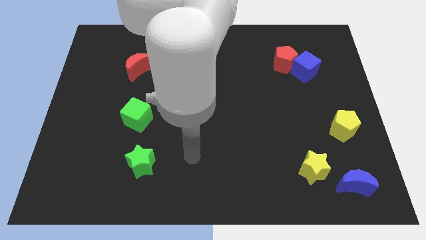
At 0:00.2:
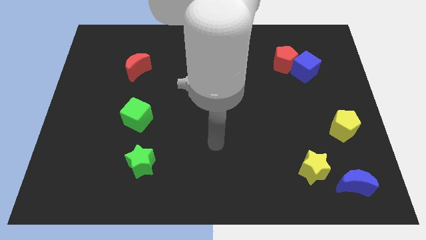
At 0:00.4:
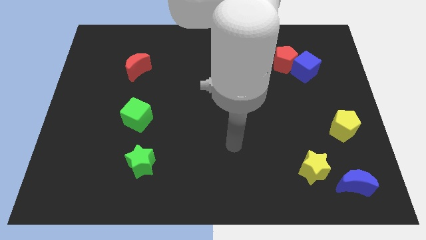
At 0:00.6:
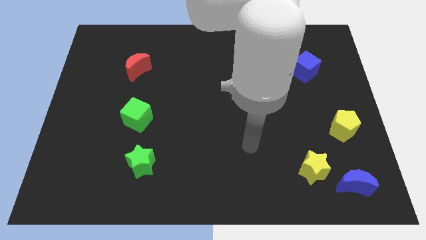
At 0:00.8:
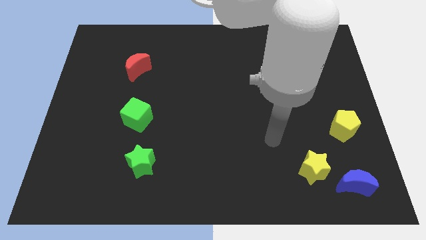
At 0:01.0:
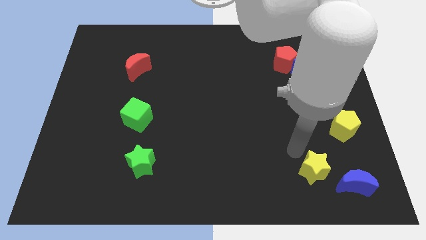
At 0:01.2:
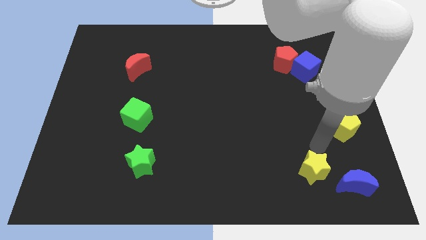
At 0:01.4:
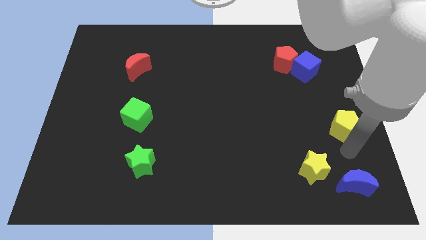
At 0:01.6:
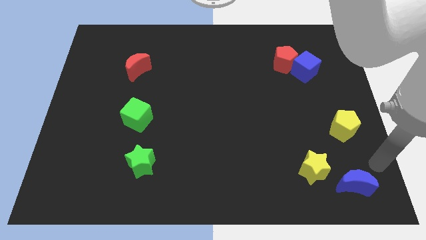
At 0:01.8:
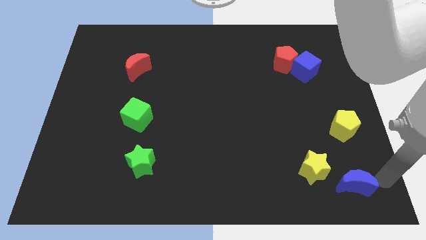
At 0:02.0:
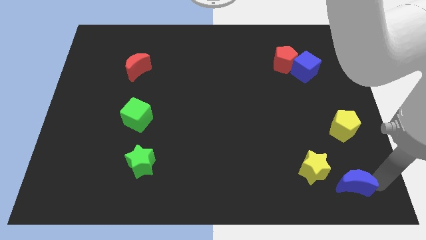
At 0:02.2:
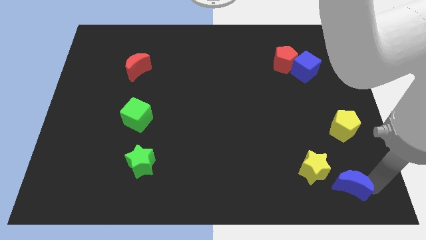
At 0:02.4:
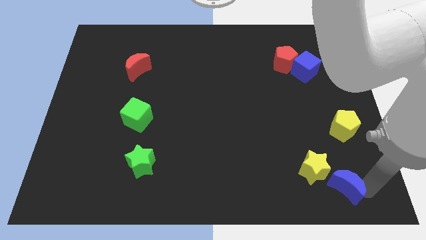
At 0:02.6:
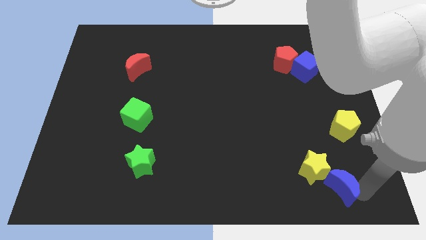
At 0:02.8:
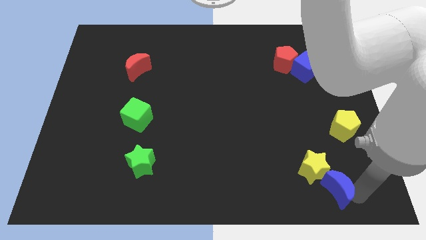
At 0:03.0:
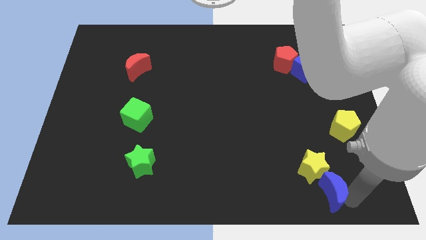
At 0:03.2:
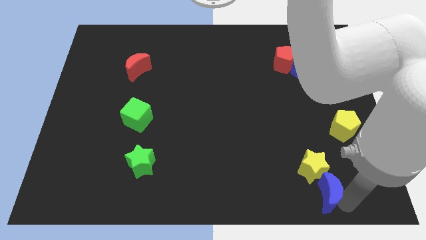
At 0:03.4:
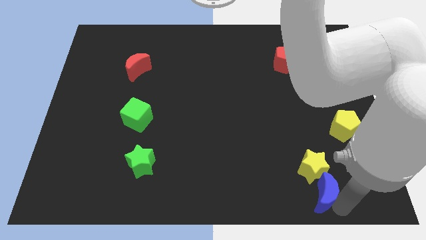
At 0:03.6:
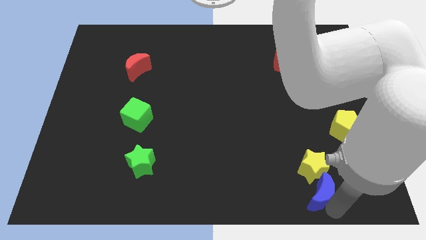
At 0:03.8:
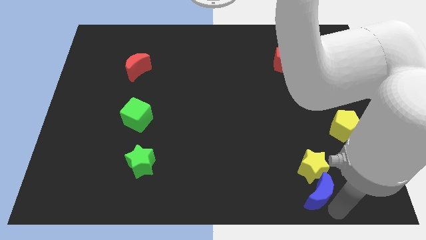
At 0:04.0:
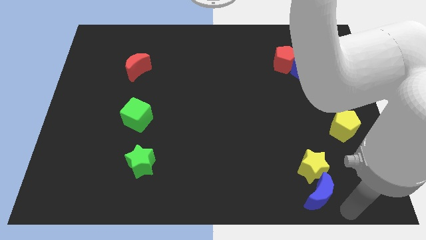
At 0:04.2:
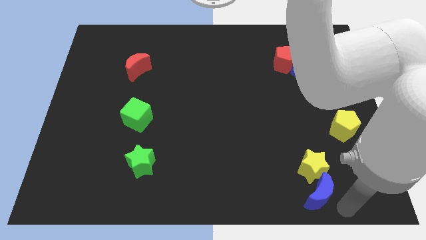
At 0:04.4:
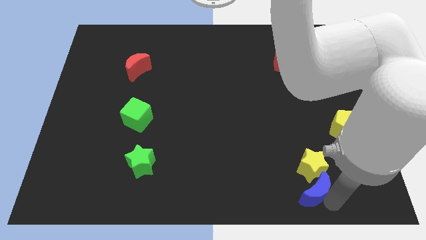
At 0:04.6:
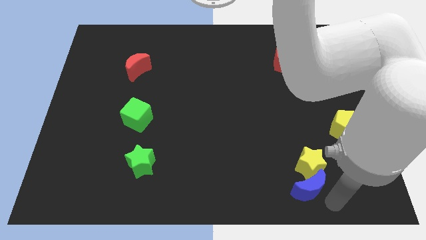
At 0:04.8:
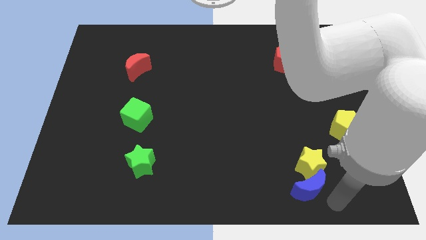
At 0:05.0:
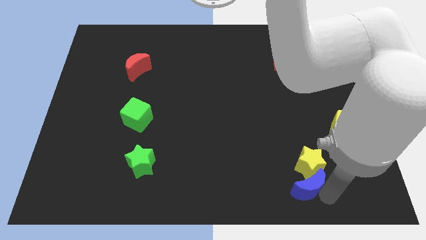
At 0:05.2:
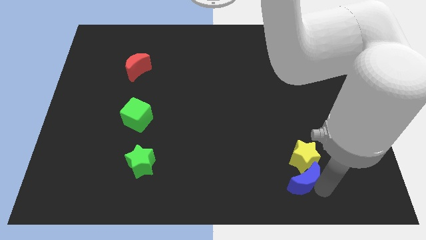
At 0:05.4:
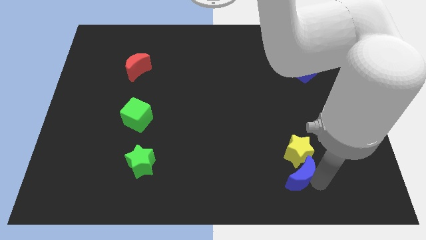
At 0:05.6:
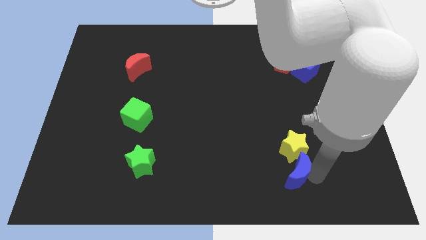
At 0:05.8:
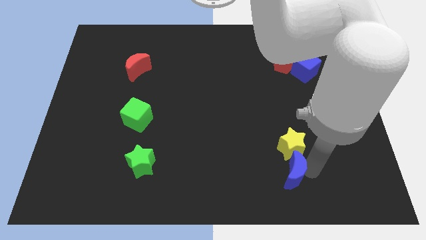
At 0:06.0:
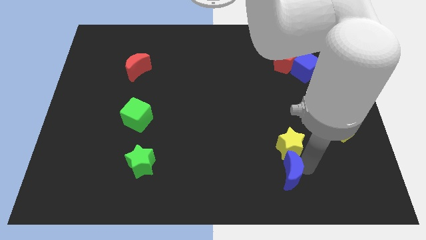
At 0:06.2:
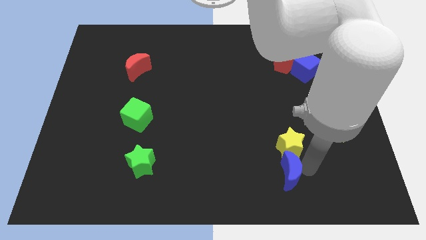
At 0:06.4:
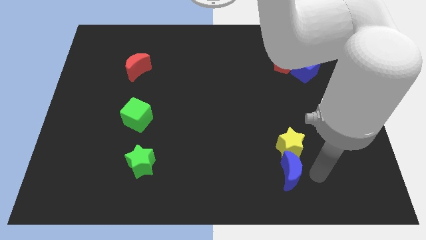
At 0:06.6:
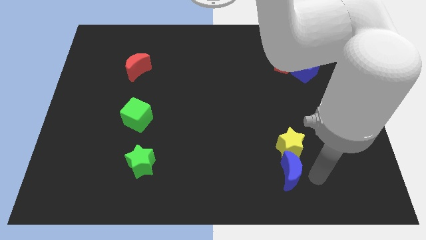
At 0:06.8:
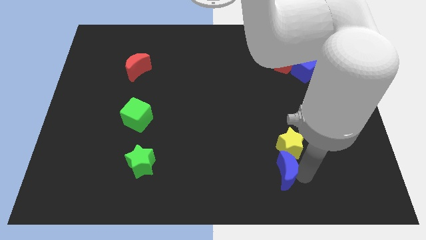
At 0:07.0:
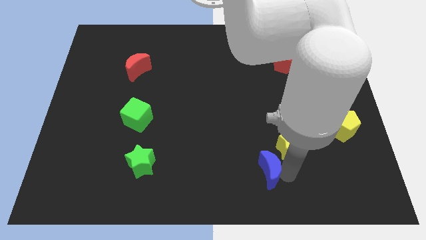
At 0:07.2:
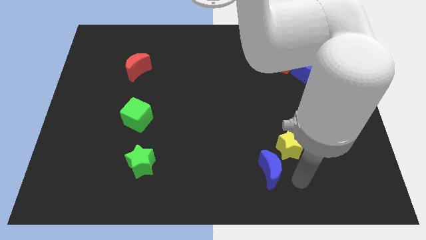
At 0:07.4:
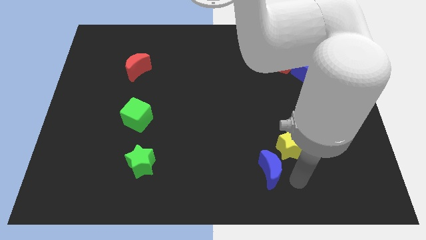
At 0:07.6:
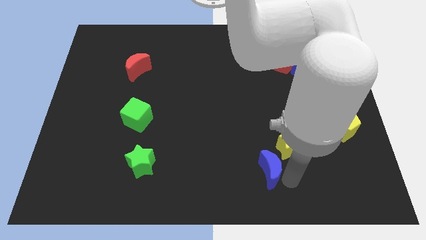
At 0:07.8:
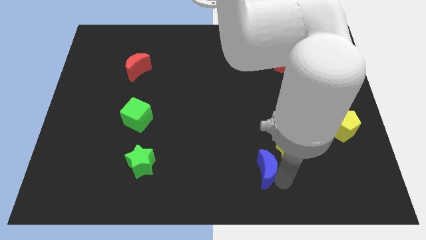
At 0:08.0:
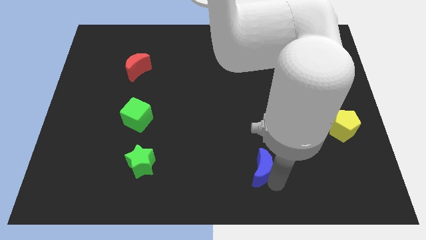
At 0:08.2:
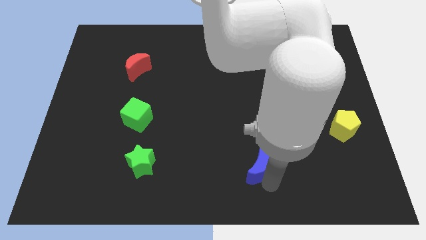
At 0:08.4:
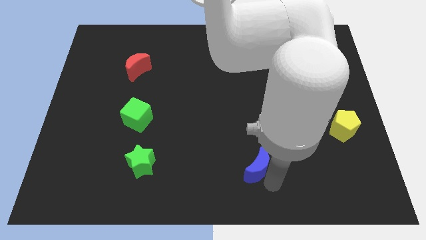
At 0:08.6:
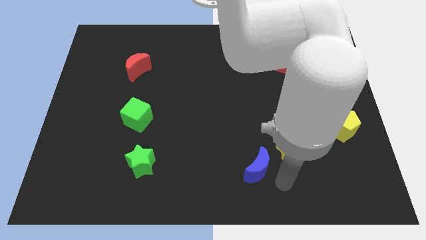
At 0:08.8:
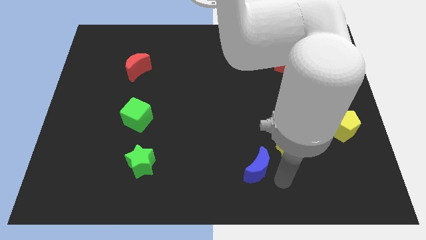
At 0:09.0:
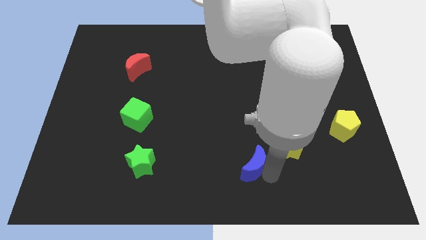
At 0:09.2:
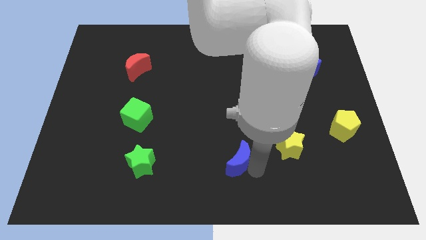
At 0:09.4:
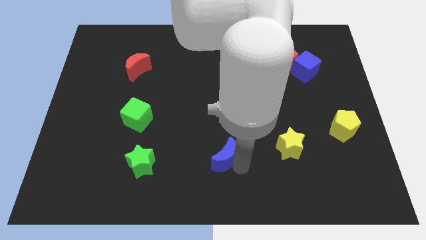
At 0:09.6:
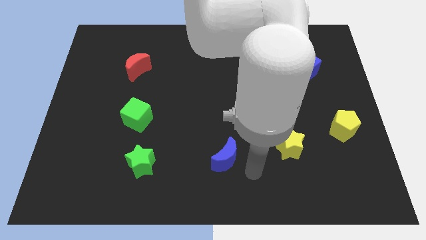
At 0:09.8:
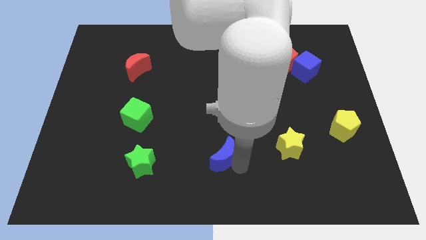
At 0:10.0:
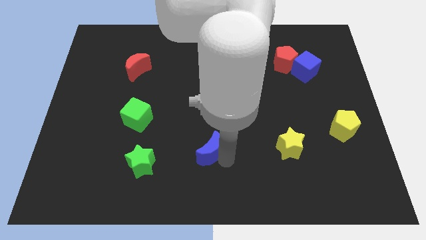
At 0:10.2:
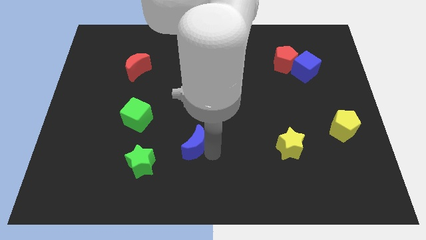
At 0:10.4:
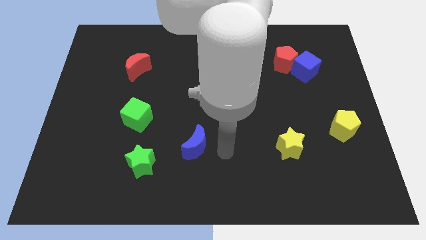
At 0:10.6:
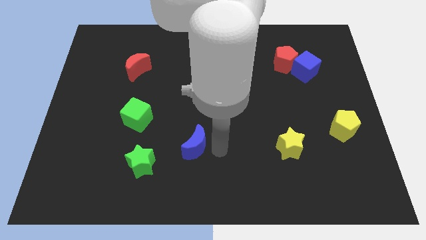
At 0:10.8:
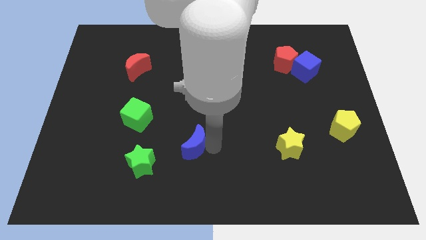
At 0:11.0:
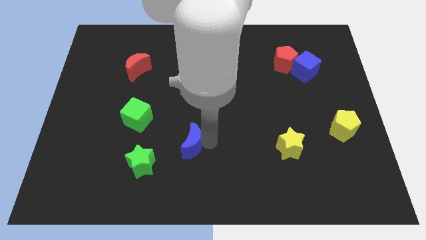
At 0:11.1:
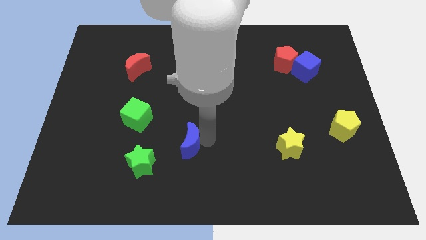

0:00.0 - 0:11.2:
push the blue moon to the top right side of the green star
